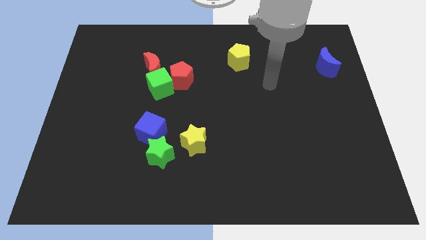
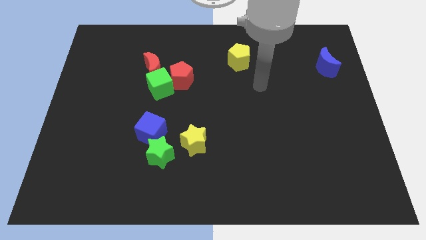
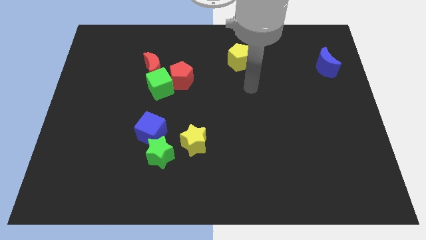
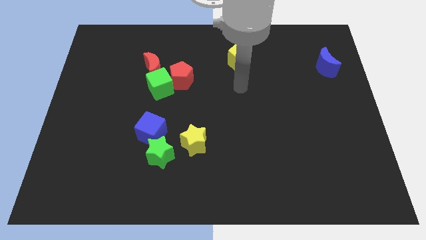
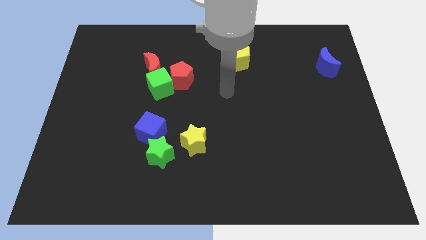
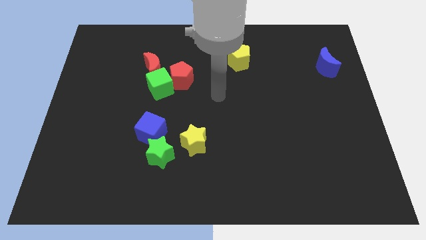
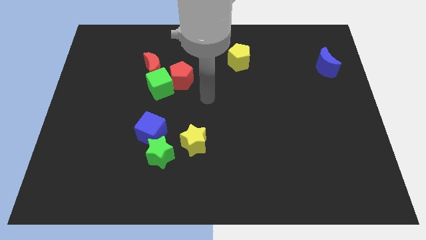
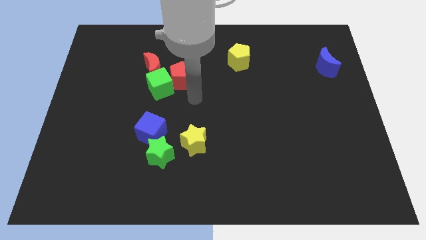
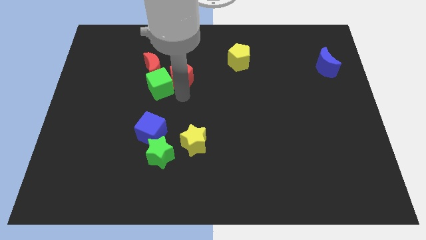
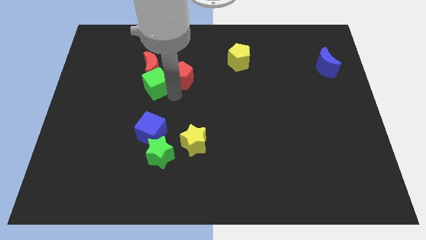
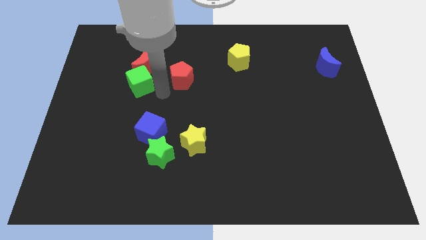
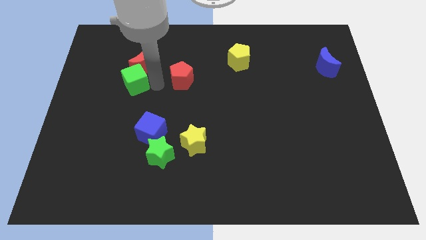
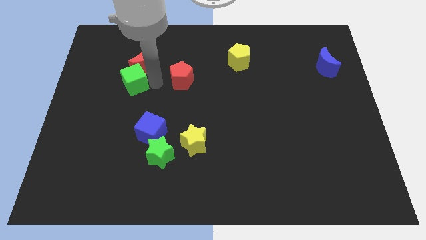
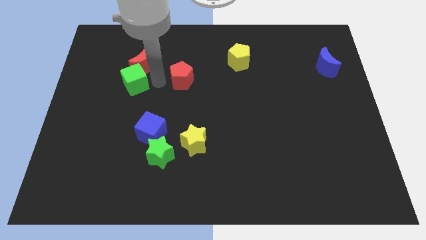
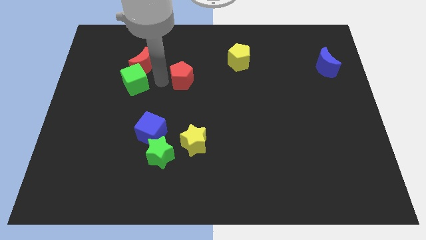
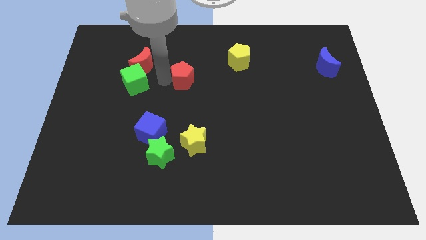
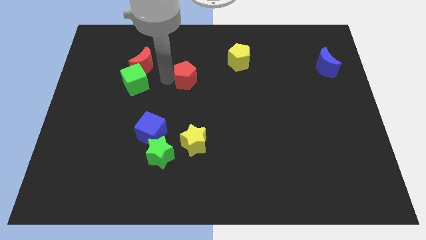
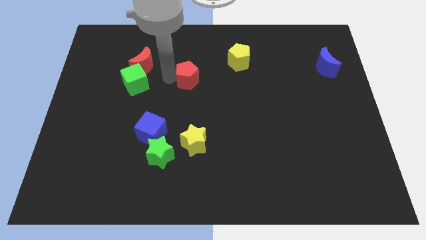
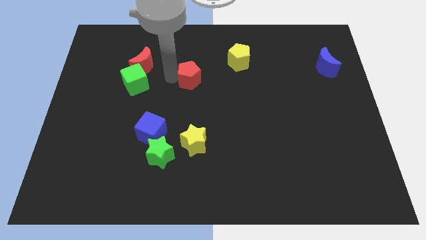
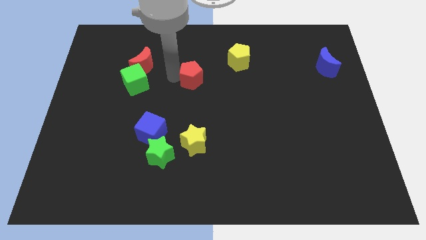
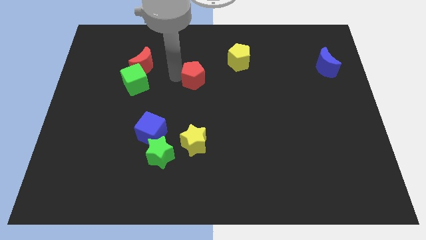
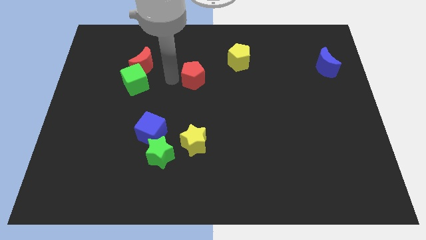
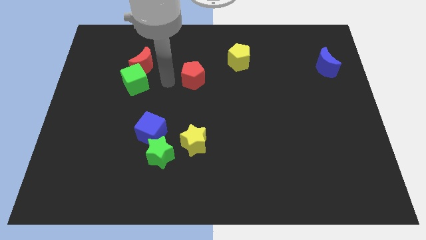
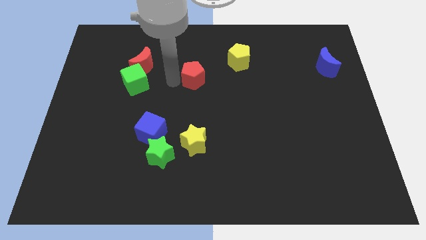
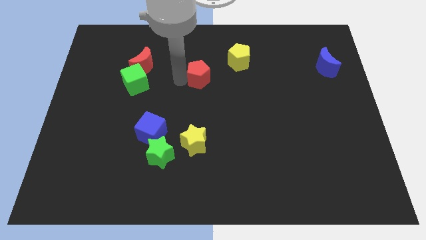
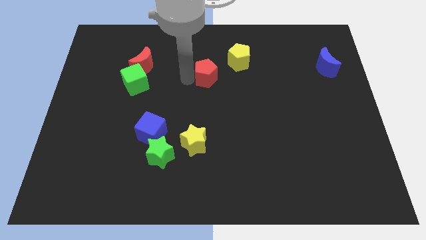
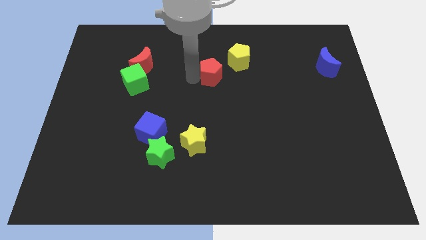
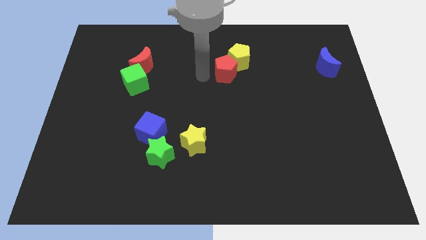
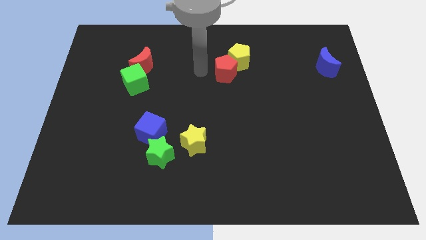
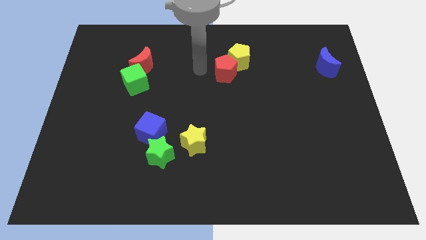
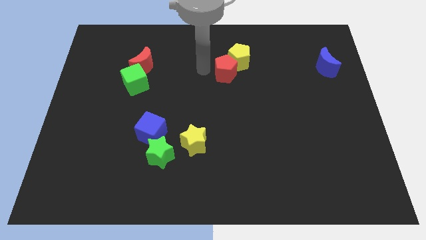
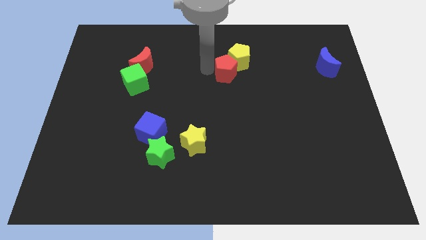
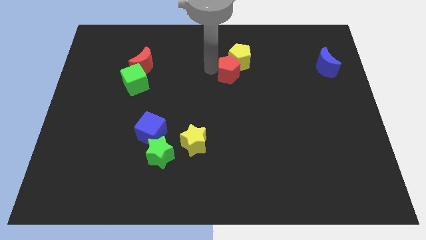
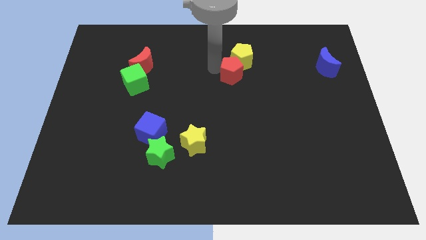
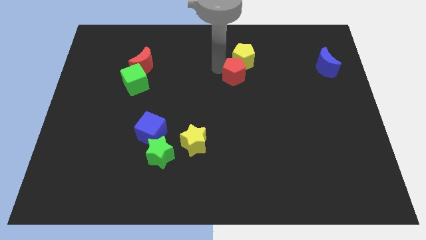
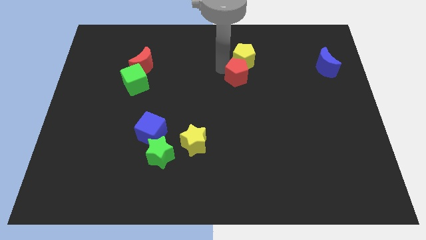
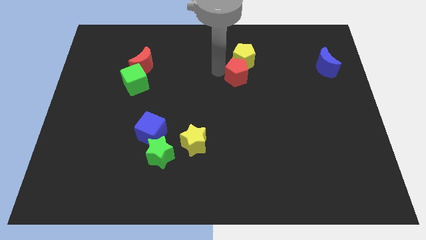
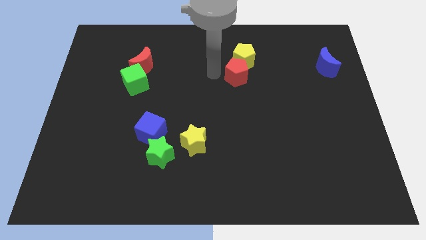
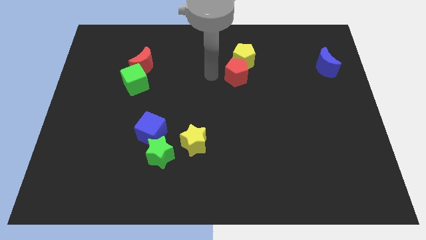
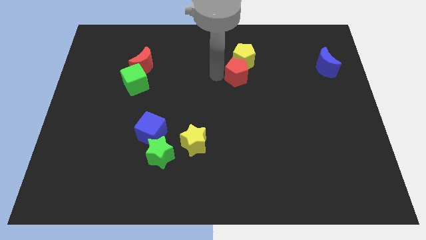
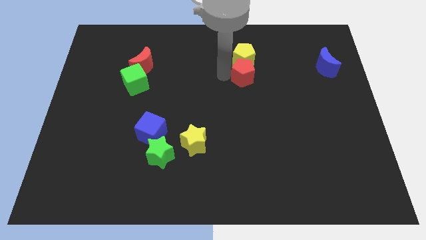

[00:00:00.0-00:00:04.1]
put the red pentagon diagonally down and to the right of the yellow pentagon

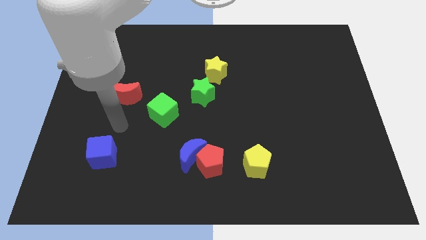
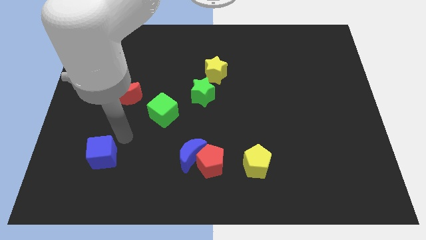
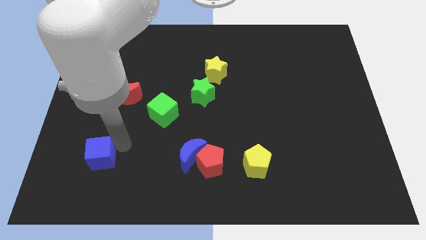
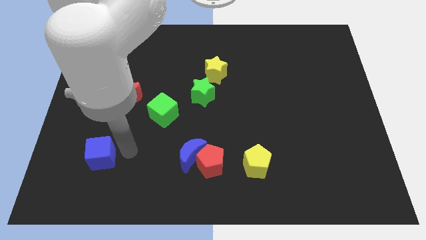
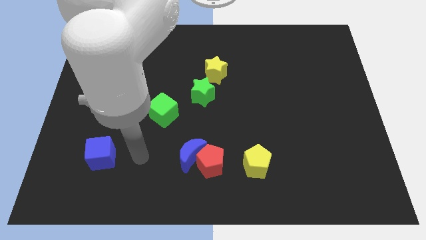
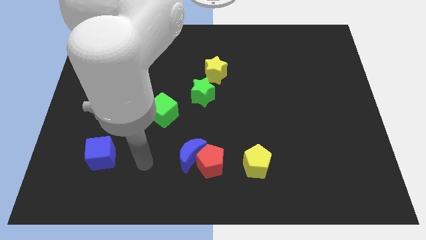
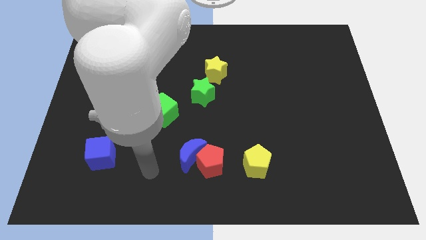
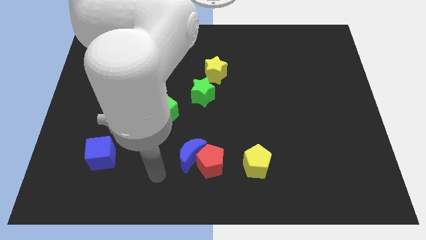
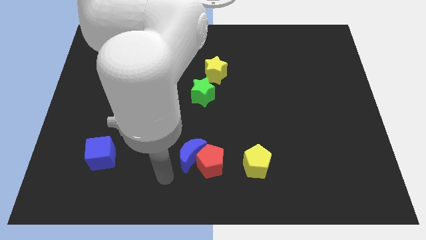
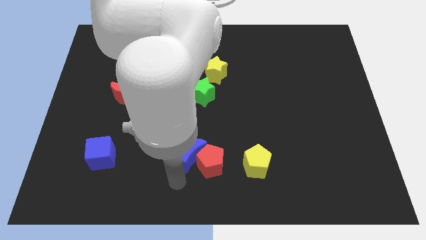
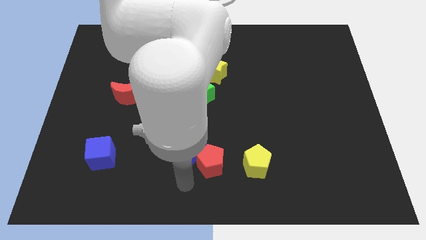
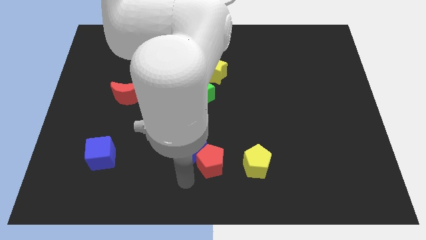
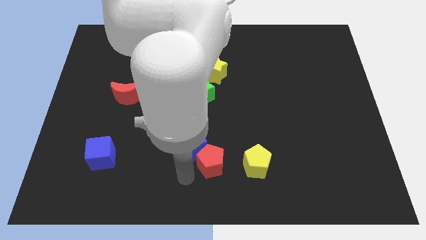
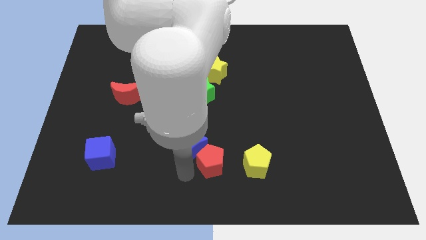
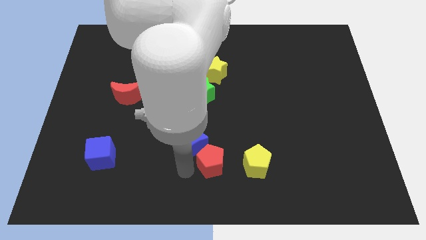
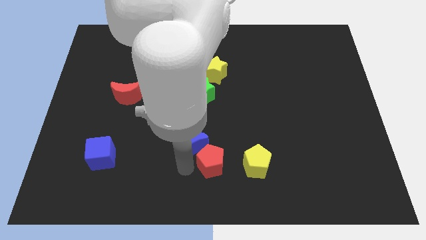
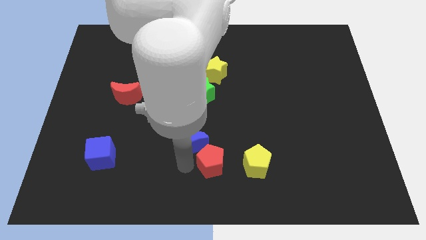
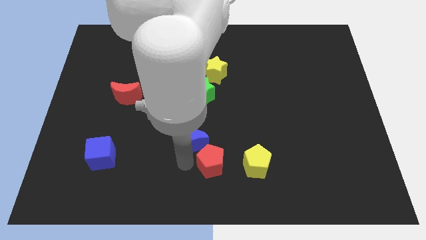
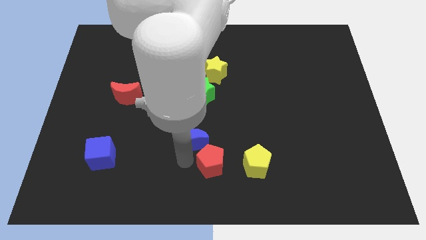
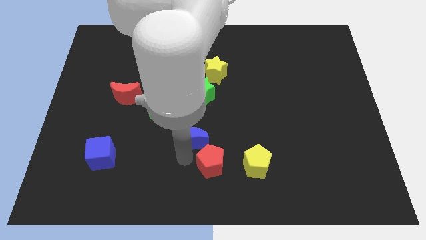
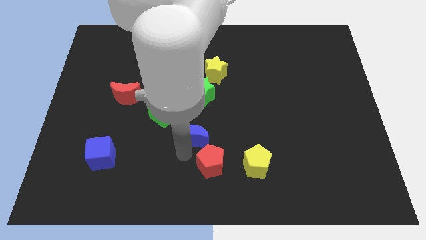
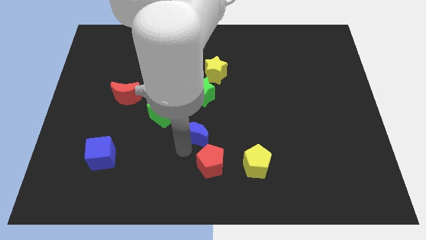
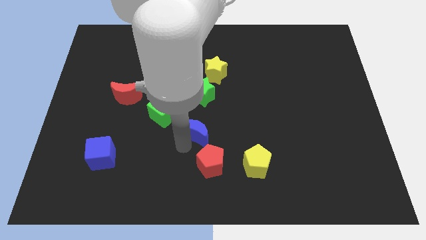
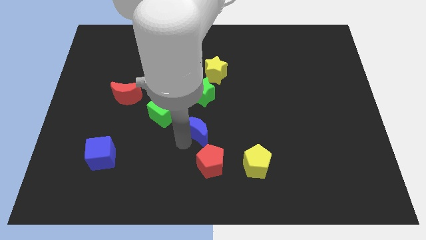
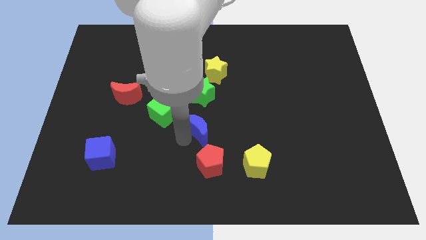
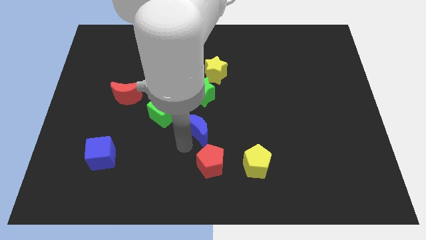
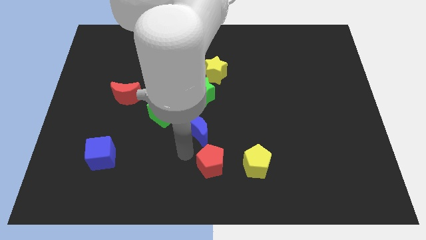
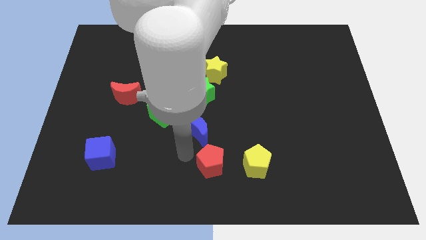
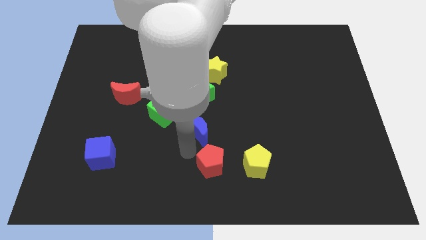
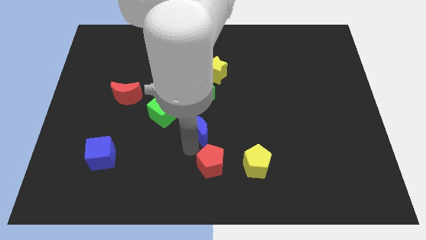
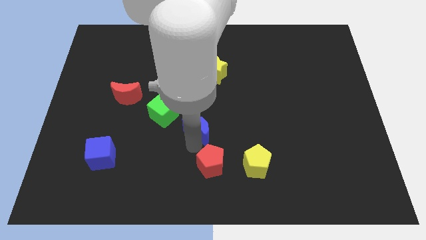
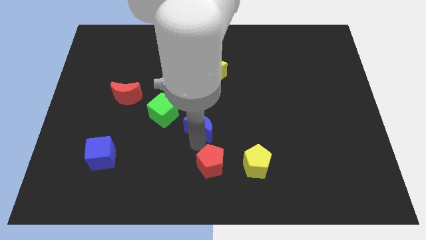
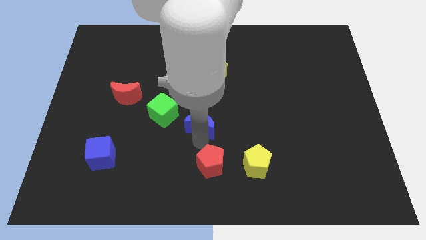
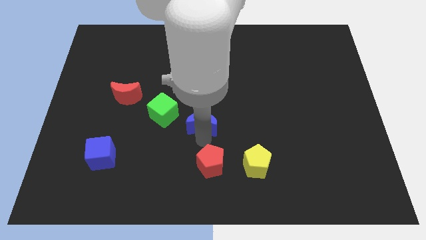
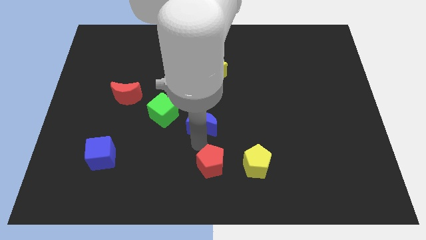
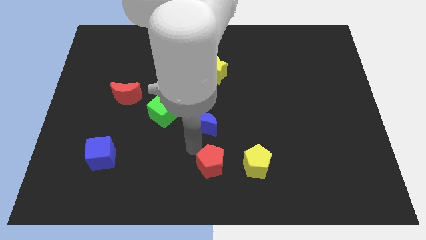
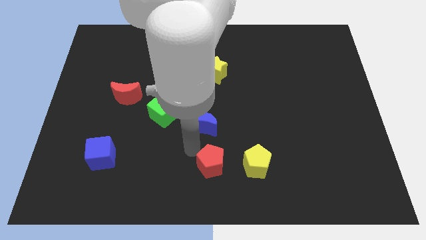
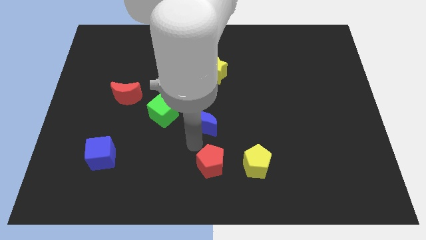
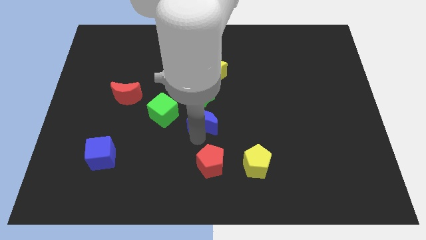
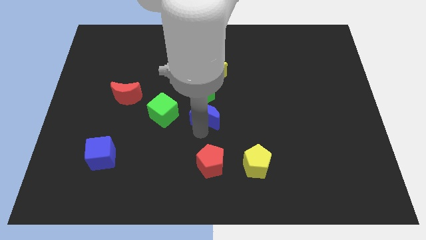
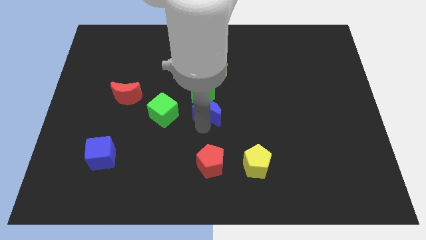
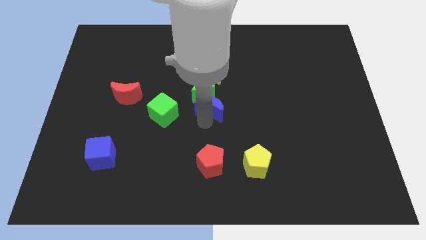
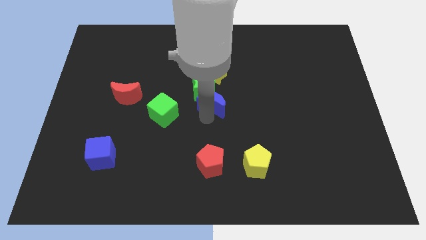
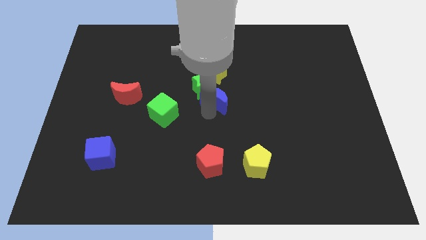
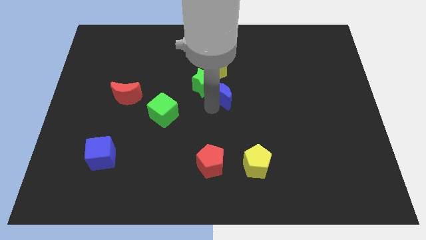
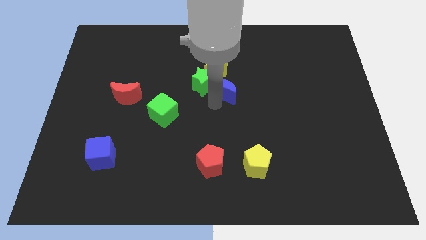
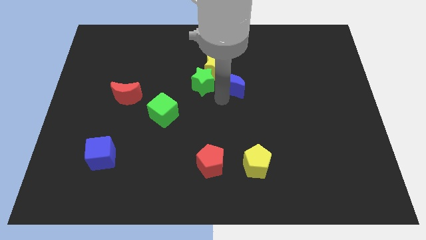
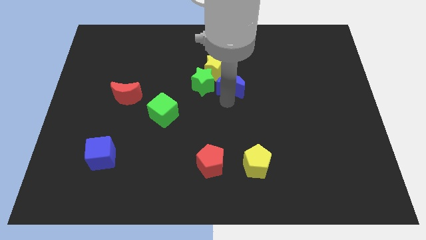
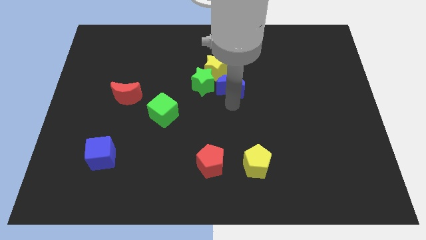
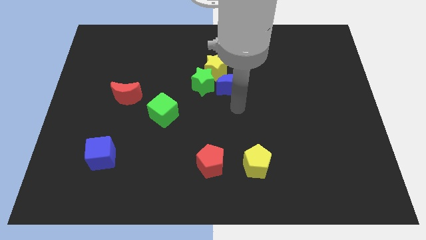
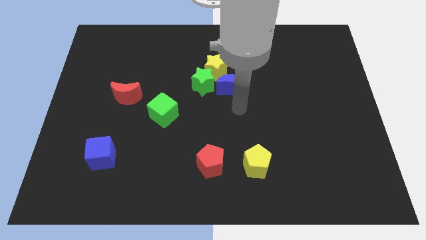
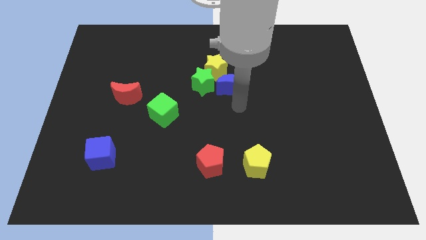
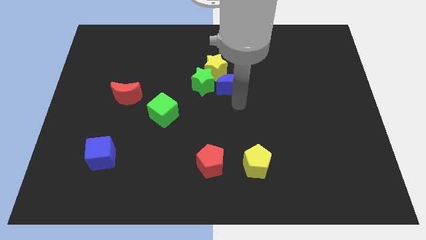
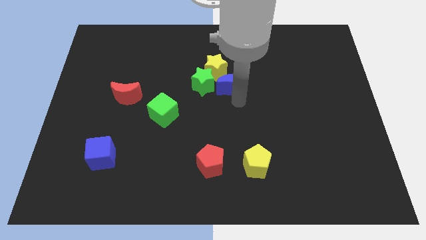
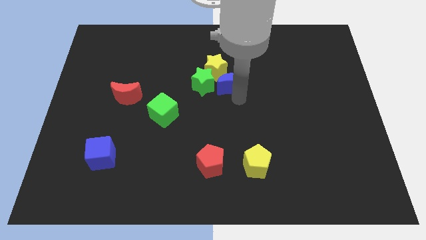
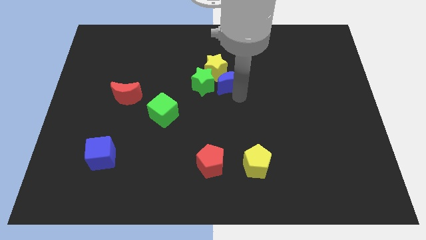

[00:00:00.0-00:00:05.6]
slide the blue moon to the top right side of the green star
